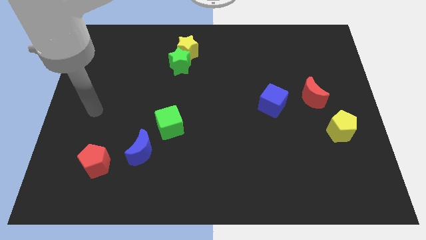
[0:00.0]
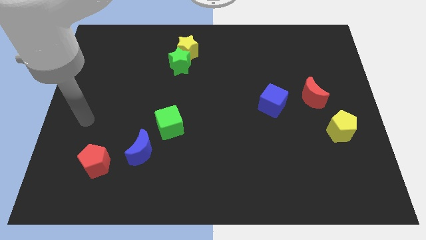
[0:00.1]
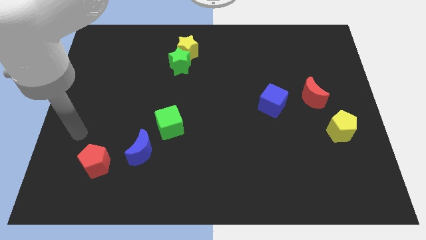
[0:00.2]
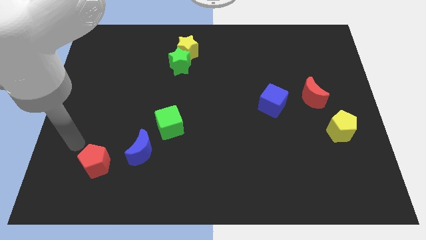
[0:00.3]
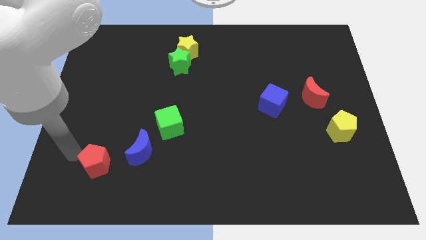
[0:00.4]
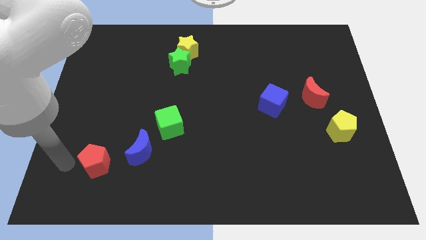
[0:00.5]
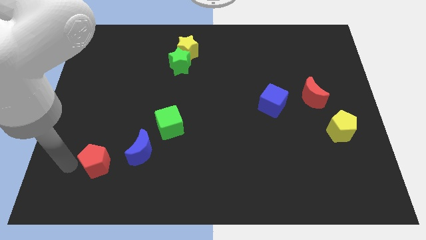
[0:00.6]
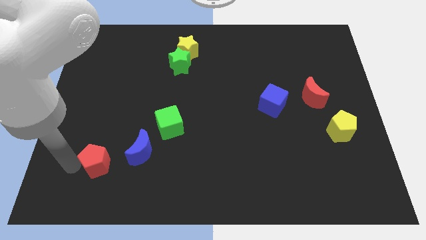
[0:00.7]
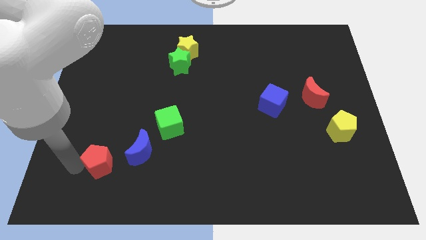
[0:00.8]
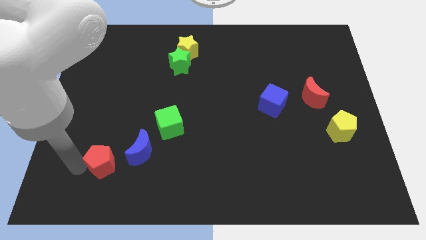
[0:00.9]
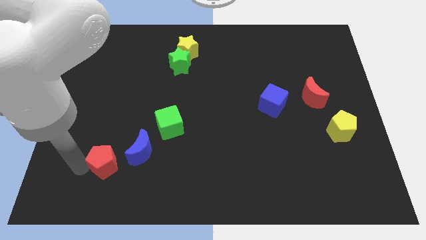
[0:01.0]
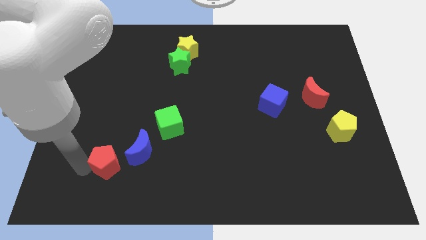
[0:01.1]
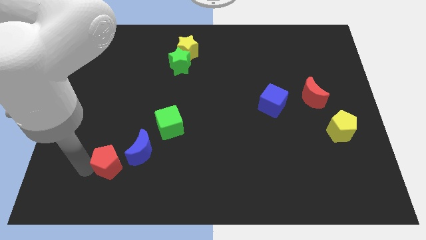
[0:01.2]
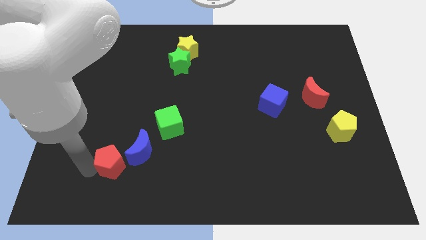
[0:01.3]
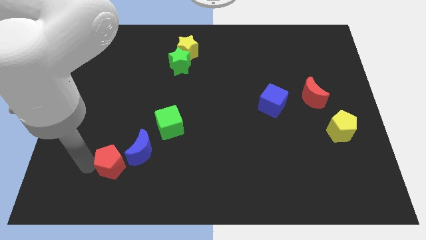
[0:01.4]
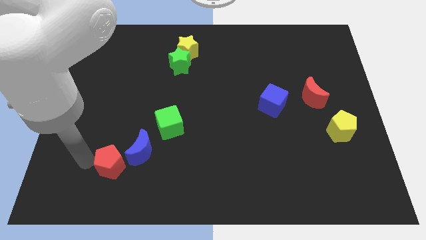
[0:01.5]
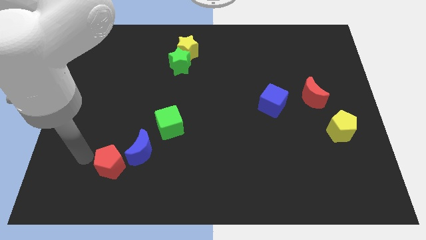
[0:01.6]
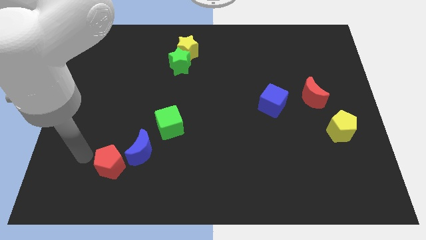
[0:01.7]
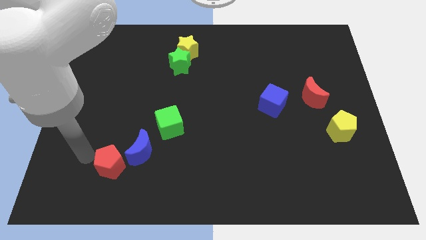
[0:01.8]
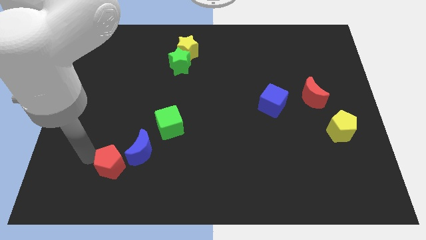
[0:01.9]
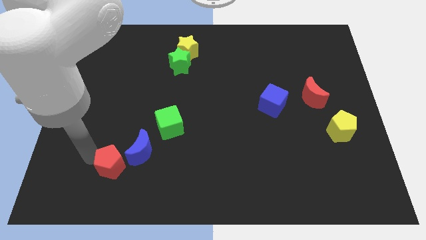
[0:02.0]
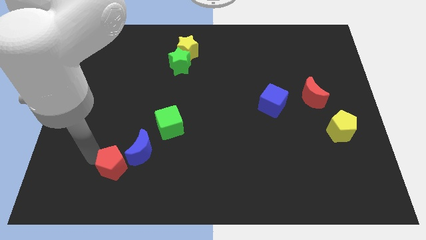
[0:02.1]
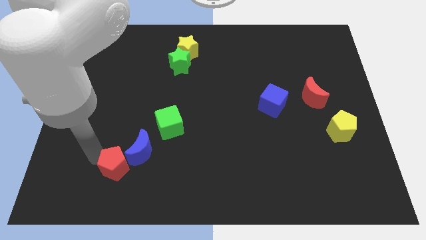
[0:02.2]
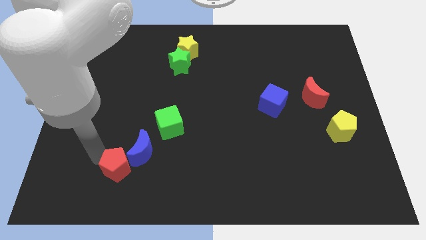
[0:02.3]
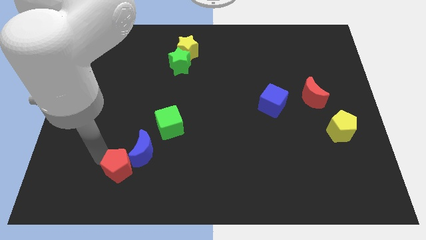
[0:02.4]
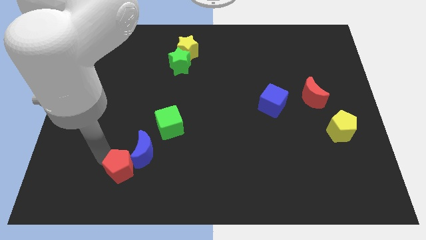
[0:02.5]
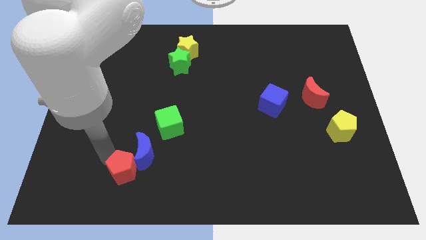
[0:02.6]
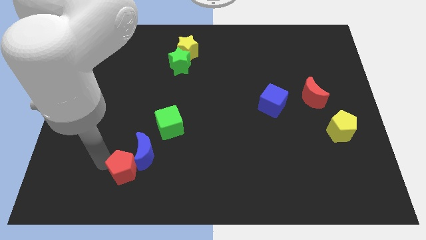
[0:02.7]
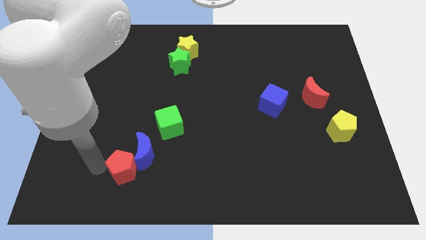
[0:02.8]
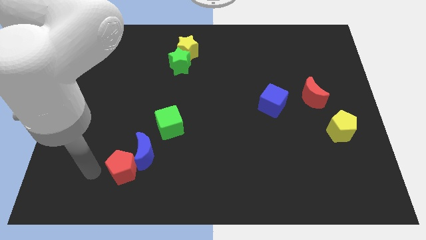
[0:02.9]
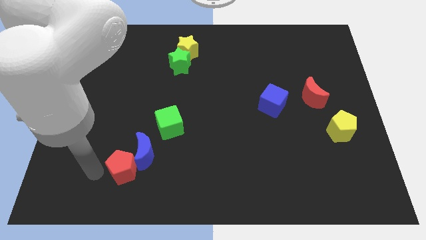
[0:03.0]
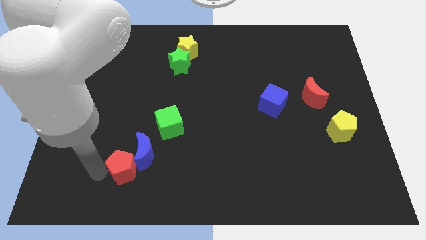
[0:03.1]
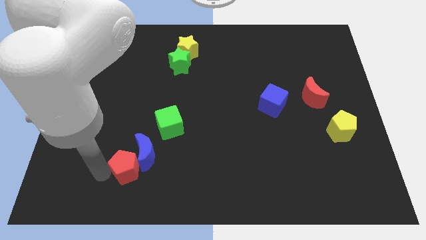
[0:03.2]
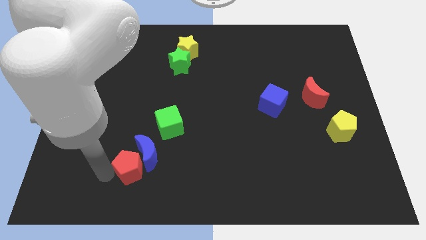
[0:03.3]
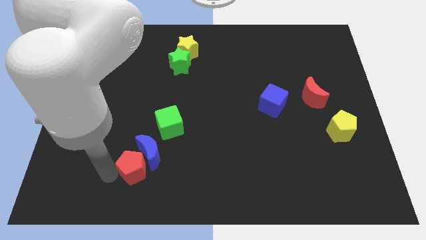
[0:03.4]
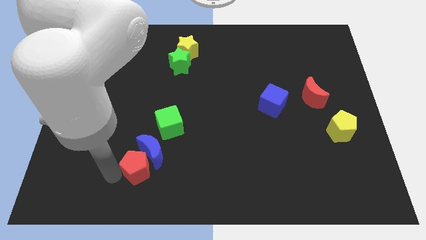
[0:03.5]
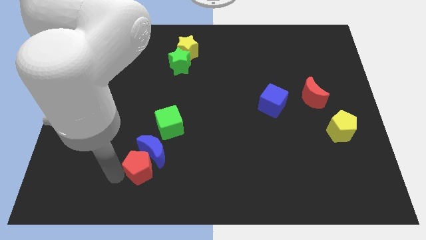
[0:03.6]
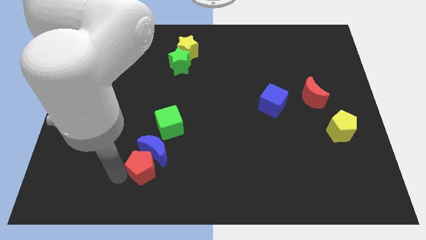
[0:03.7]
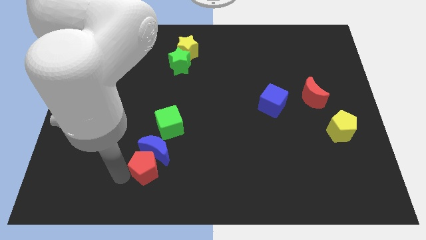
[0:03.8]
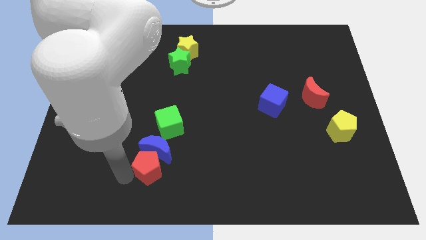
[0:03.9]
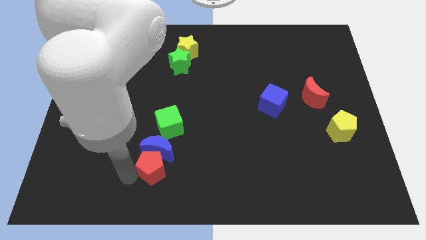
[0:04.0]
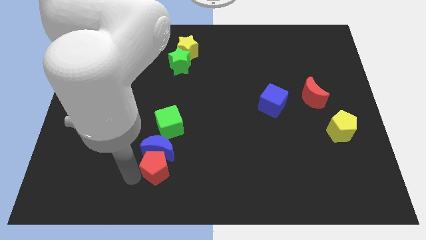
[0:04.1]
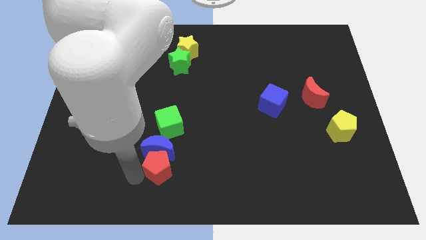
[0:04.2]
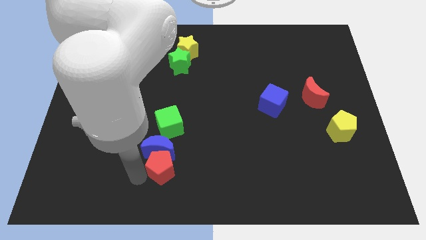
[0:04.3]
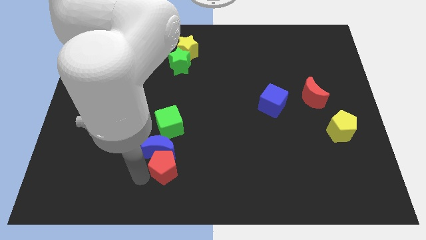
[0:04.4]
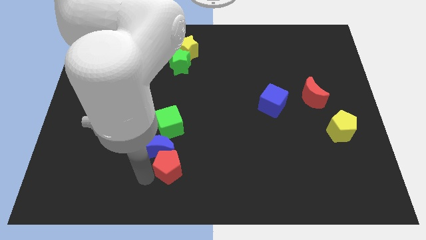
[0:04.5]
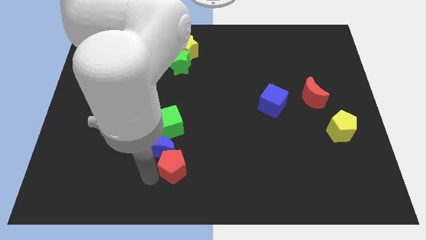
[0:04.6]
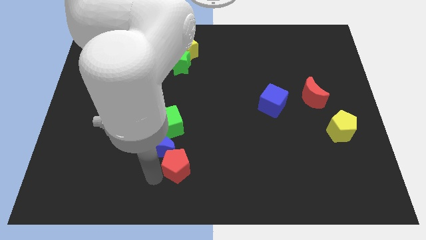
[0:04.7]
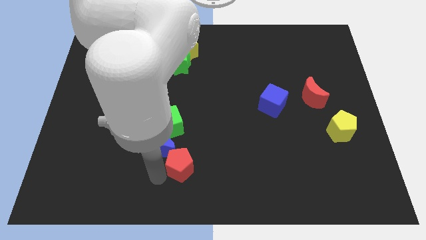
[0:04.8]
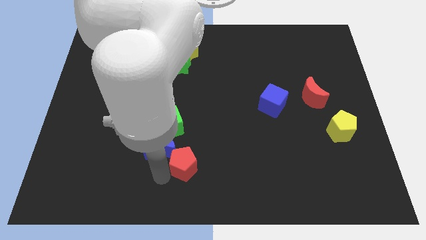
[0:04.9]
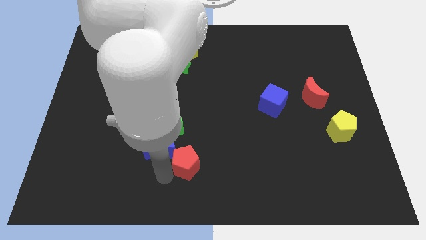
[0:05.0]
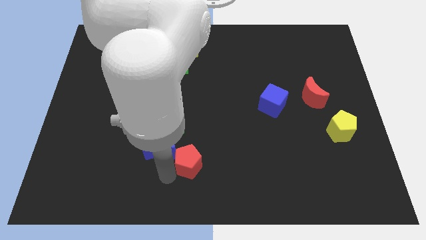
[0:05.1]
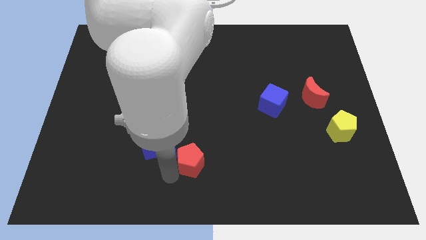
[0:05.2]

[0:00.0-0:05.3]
slide the red pentagon right

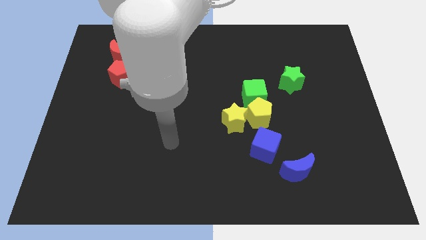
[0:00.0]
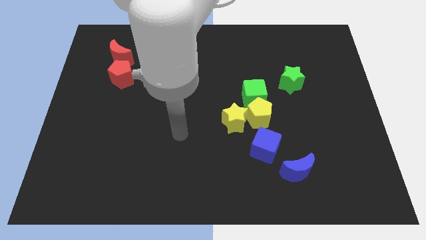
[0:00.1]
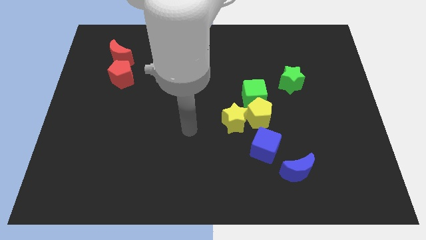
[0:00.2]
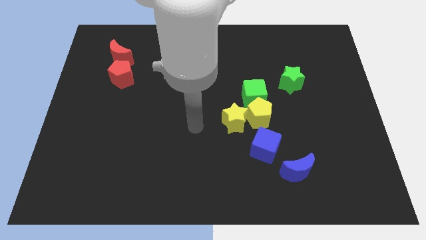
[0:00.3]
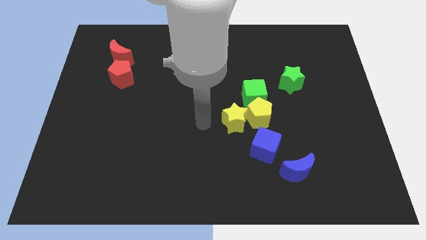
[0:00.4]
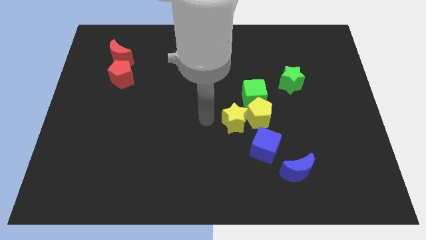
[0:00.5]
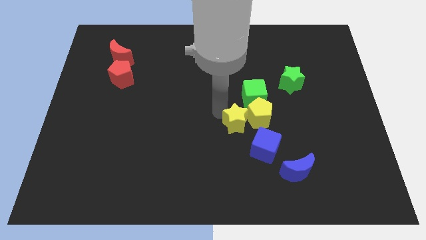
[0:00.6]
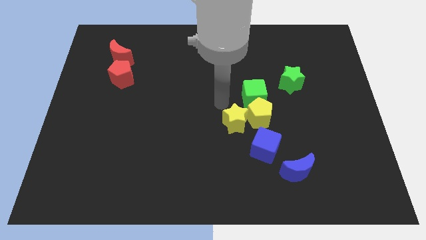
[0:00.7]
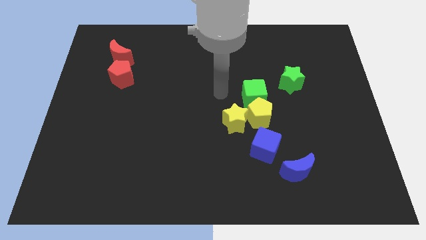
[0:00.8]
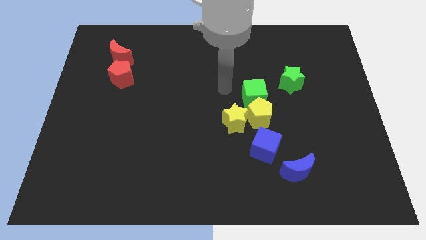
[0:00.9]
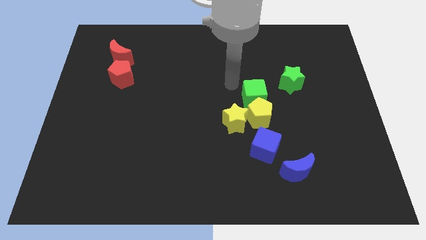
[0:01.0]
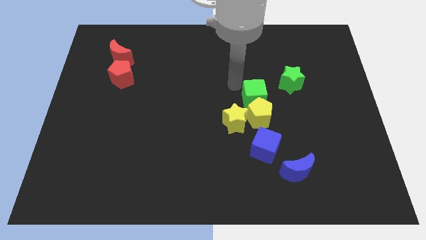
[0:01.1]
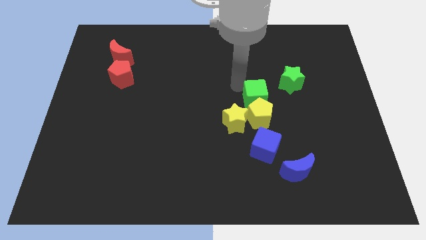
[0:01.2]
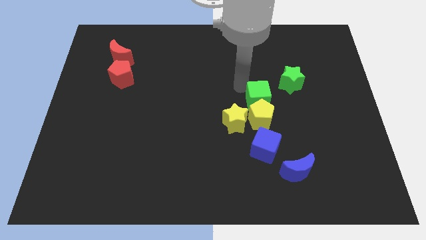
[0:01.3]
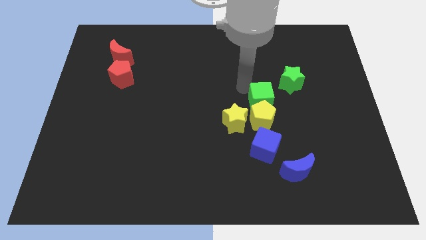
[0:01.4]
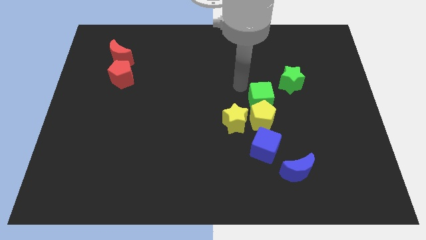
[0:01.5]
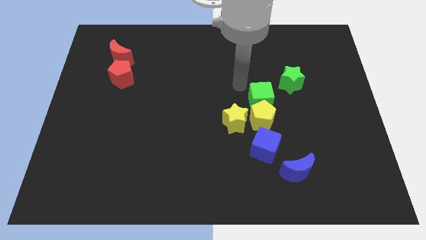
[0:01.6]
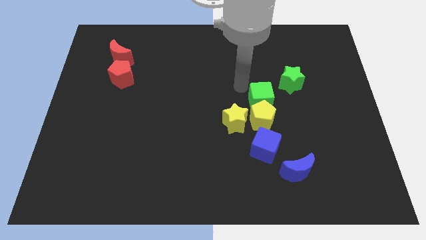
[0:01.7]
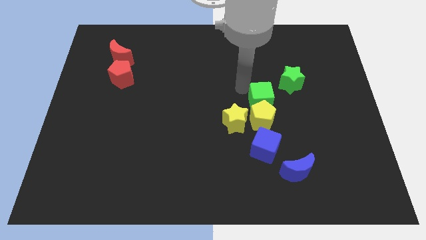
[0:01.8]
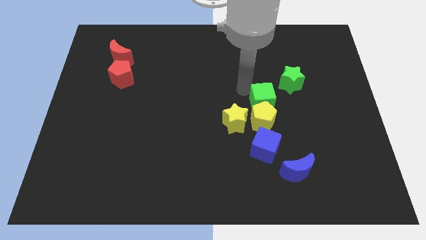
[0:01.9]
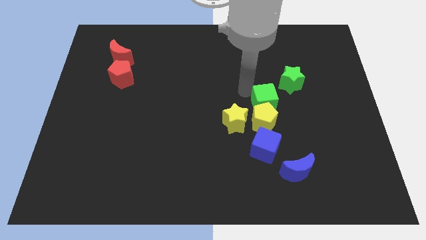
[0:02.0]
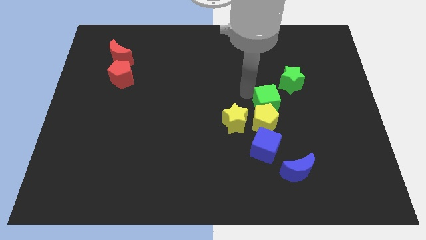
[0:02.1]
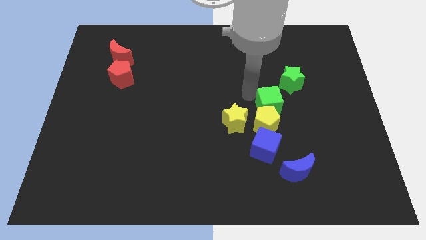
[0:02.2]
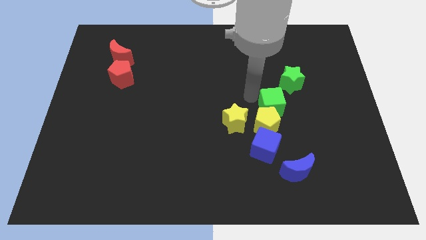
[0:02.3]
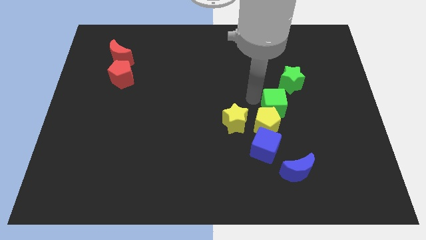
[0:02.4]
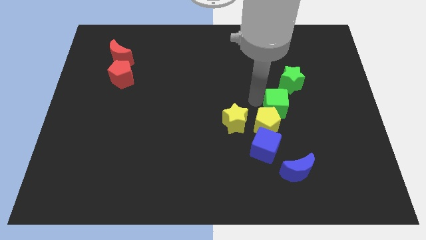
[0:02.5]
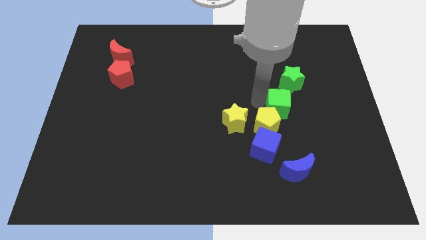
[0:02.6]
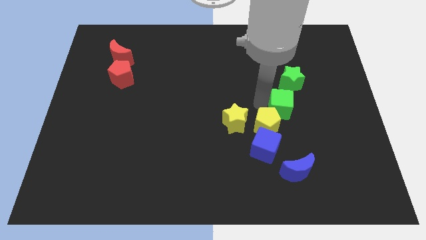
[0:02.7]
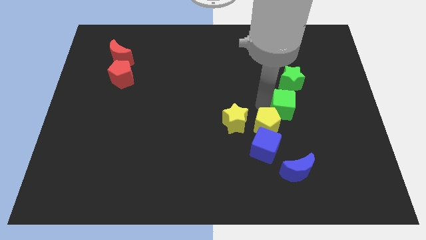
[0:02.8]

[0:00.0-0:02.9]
slightly slide the green cube down and to the right
